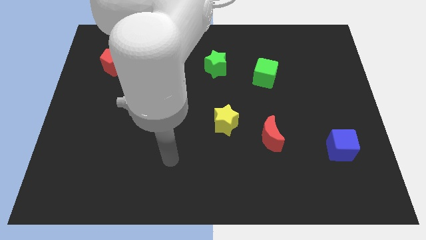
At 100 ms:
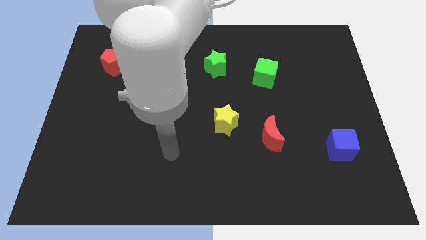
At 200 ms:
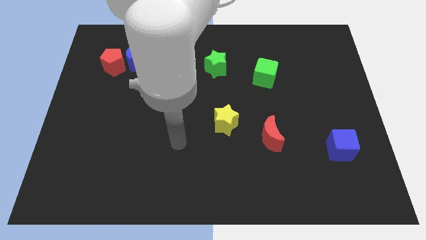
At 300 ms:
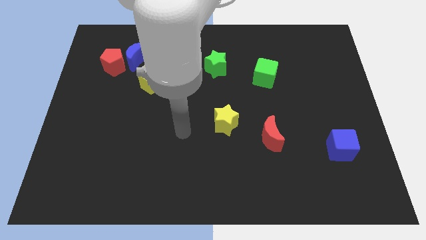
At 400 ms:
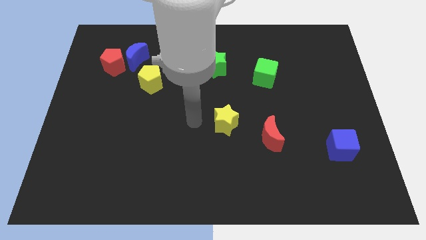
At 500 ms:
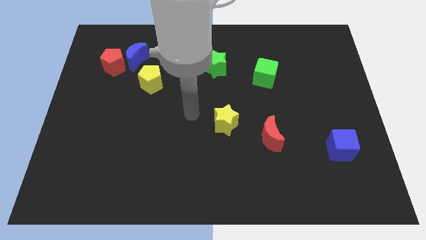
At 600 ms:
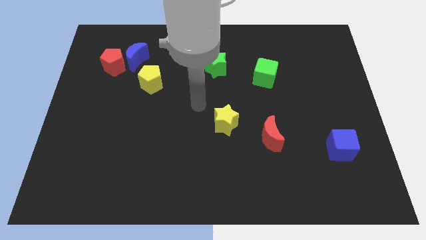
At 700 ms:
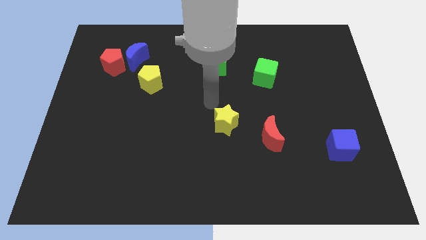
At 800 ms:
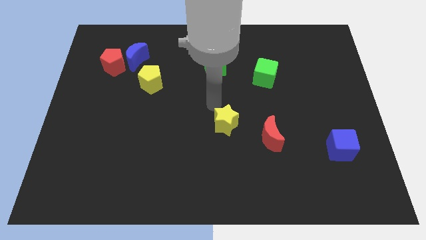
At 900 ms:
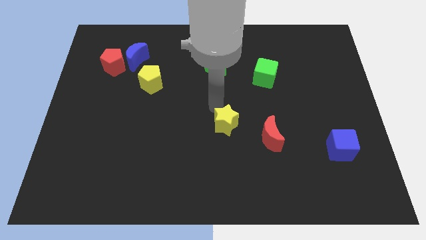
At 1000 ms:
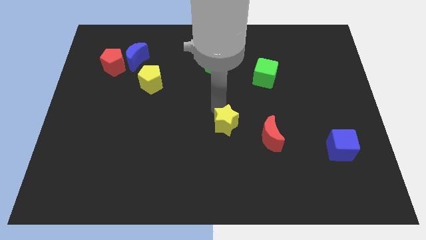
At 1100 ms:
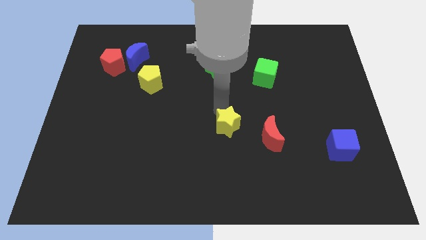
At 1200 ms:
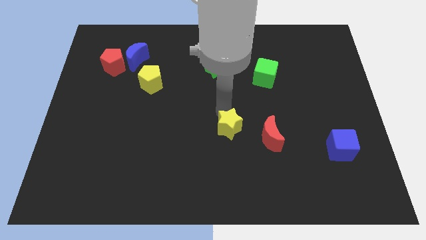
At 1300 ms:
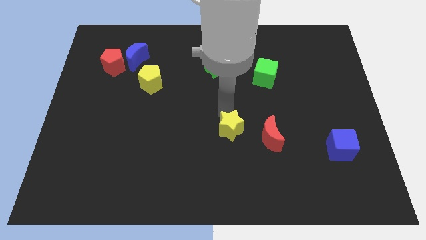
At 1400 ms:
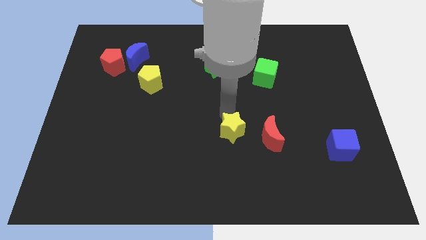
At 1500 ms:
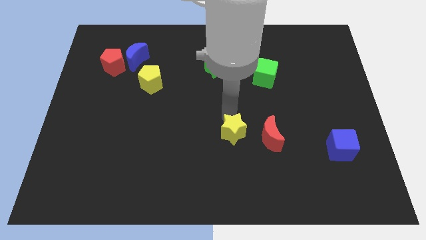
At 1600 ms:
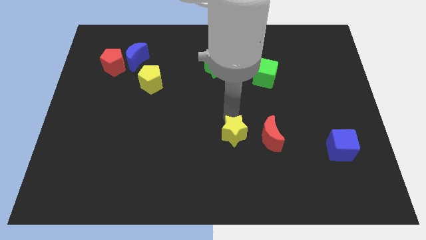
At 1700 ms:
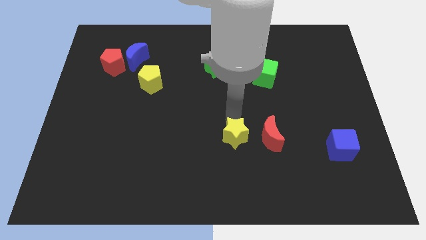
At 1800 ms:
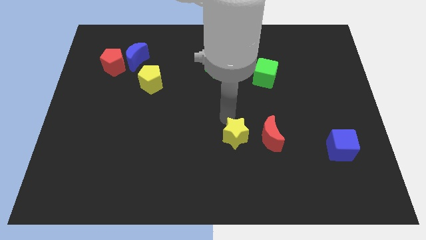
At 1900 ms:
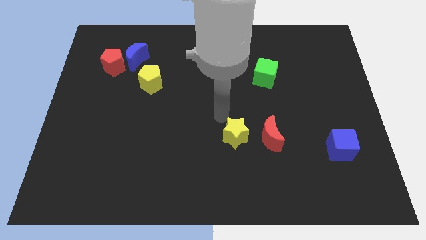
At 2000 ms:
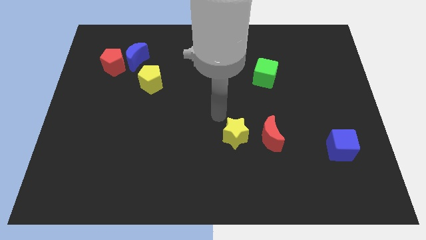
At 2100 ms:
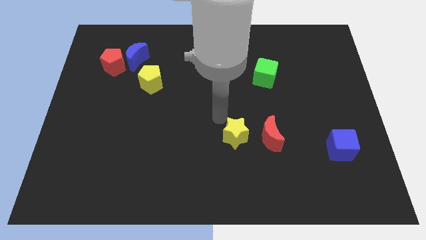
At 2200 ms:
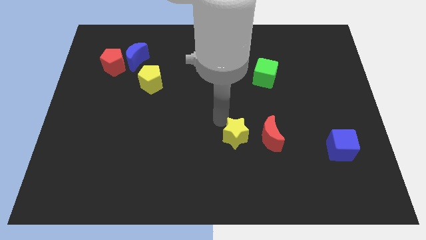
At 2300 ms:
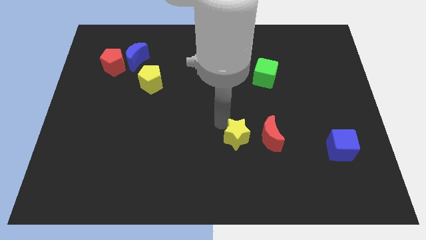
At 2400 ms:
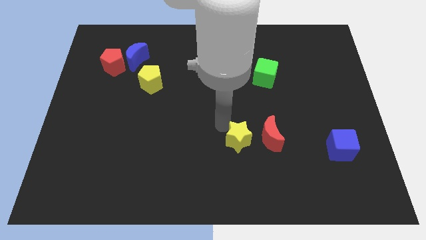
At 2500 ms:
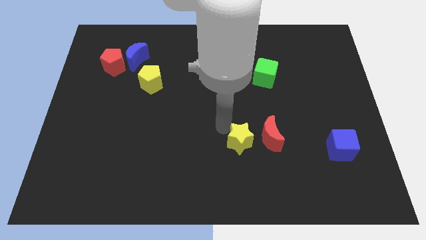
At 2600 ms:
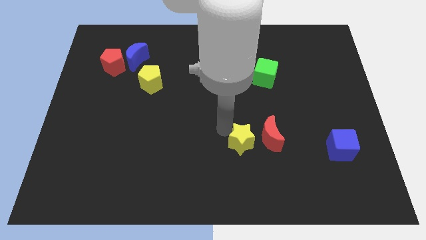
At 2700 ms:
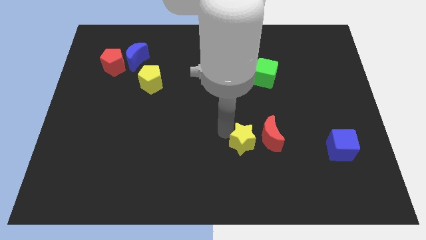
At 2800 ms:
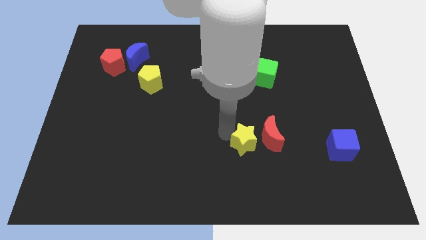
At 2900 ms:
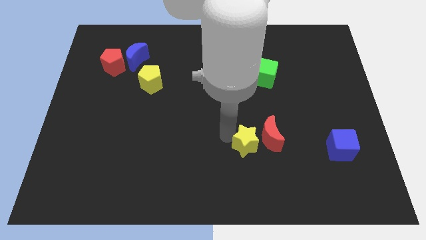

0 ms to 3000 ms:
slightly slide the yellow star down and right

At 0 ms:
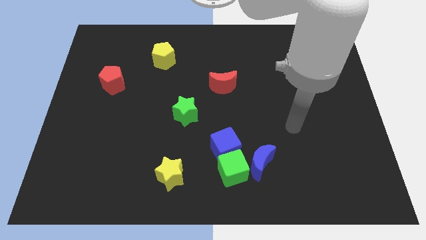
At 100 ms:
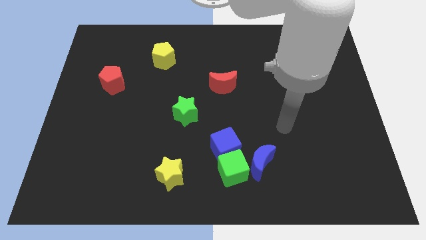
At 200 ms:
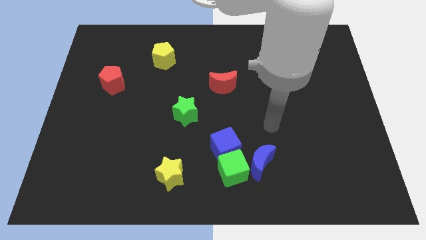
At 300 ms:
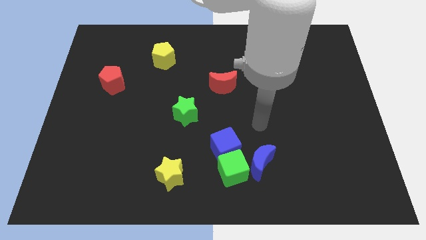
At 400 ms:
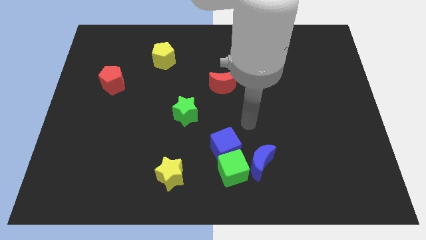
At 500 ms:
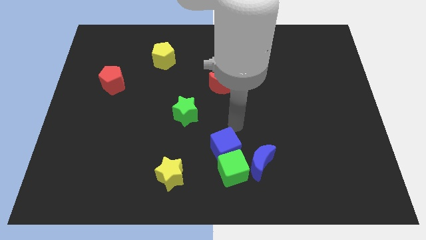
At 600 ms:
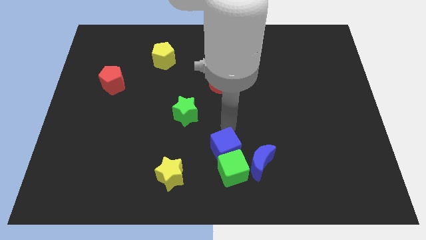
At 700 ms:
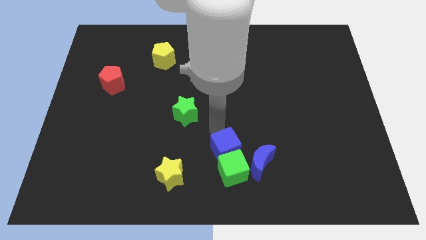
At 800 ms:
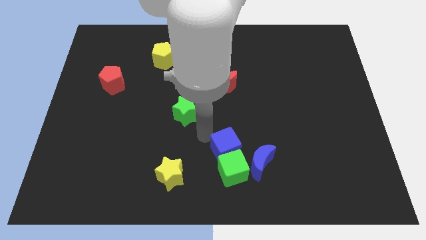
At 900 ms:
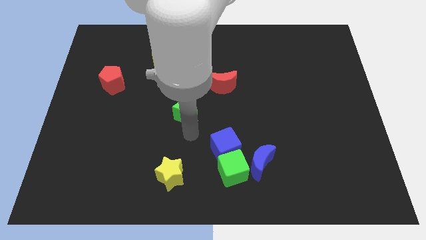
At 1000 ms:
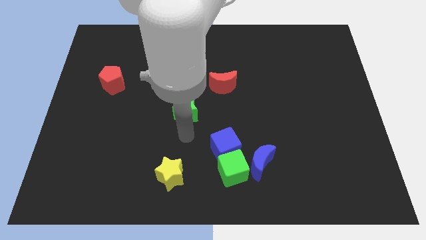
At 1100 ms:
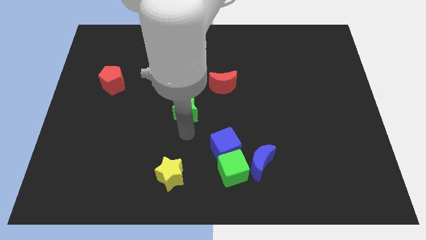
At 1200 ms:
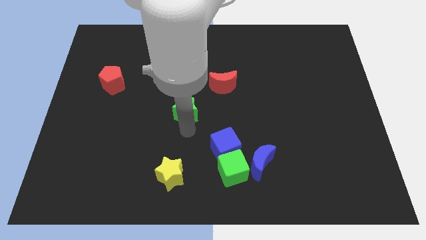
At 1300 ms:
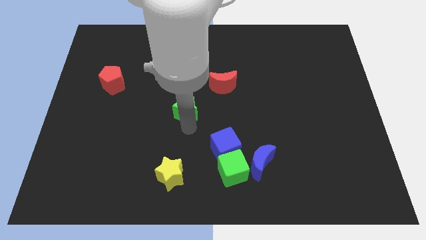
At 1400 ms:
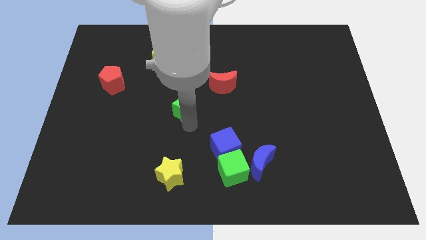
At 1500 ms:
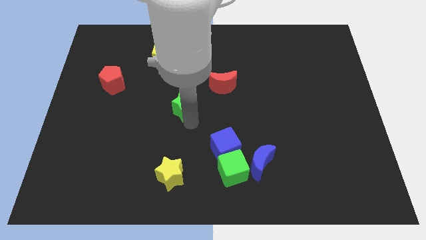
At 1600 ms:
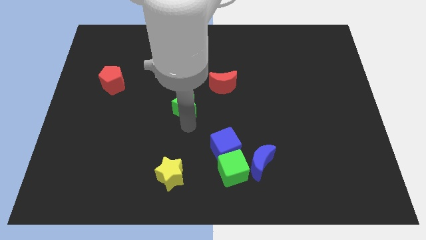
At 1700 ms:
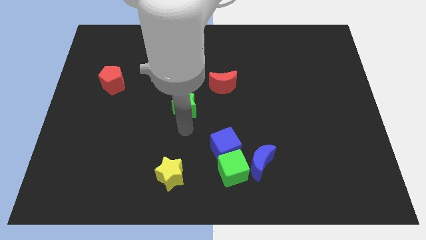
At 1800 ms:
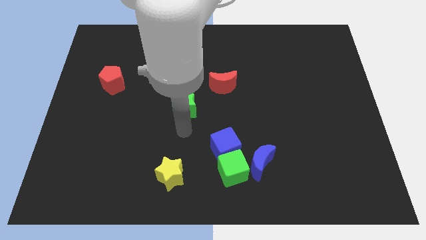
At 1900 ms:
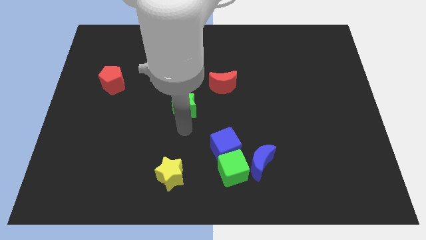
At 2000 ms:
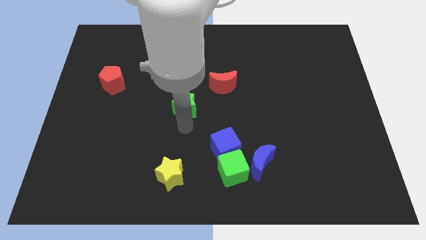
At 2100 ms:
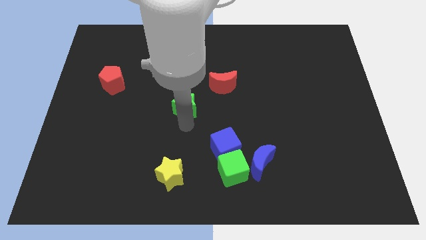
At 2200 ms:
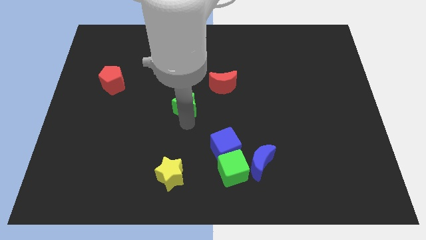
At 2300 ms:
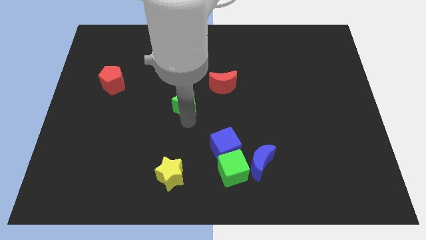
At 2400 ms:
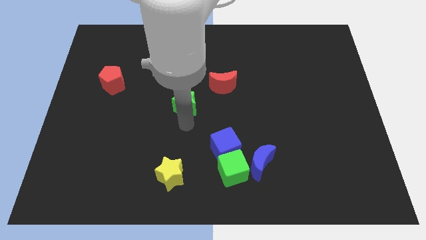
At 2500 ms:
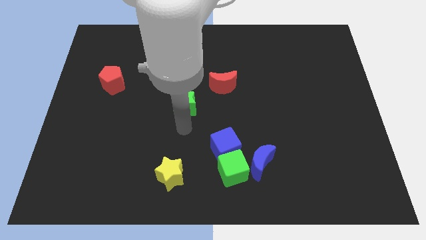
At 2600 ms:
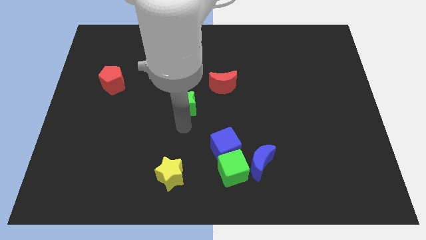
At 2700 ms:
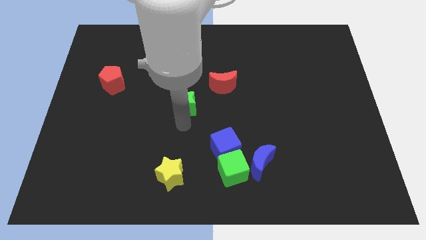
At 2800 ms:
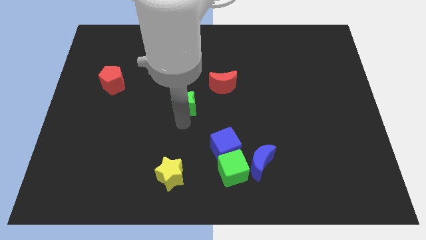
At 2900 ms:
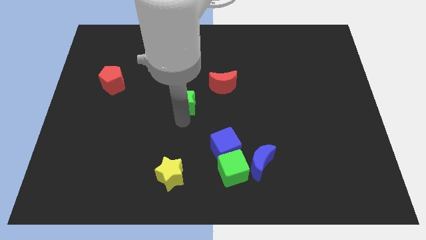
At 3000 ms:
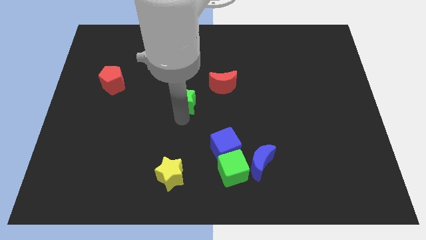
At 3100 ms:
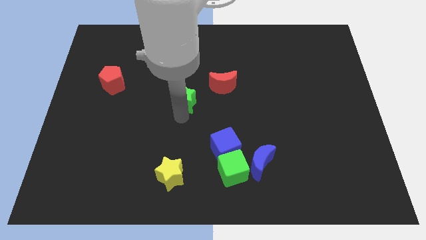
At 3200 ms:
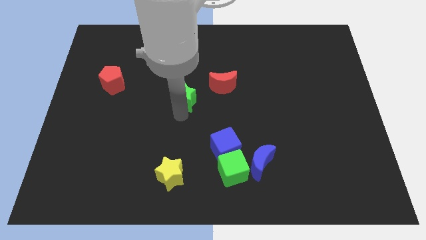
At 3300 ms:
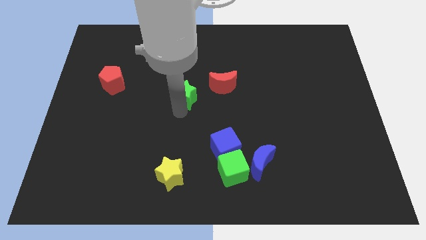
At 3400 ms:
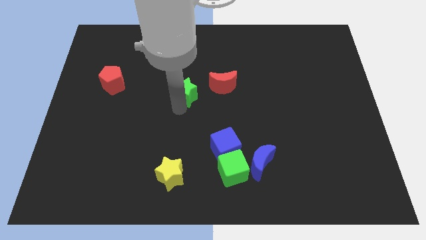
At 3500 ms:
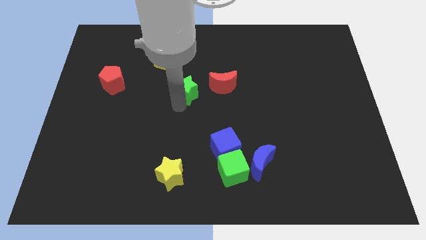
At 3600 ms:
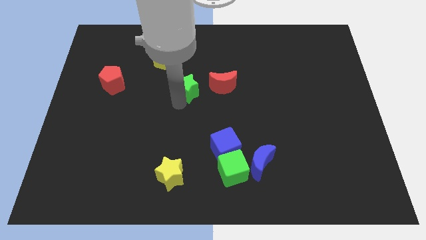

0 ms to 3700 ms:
move the green star a bit up

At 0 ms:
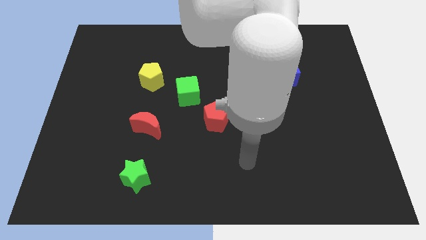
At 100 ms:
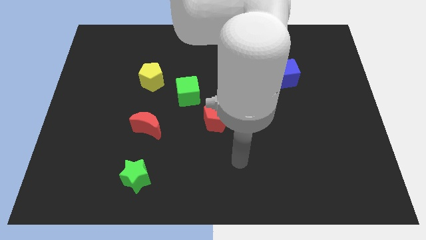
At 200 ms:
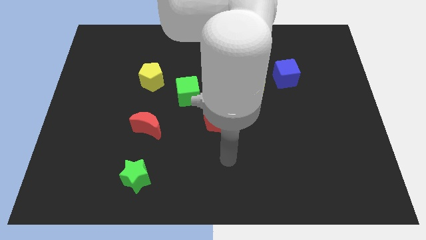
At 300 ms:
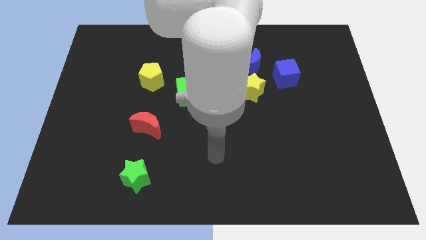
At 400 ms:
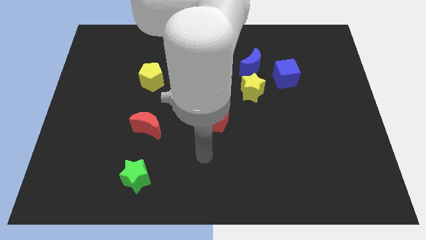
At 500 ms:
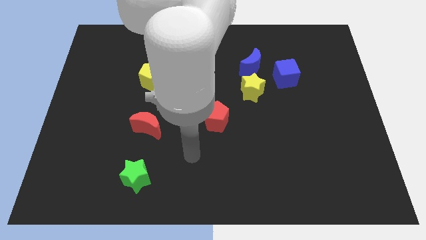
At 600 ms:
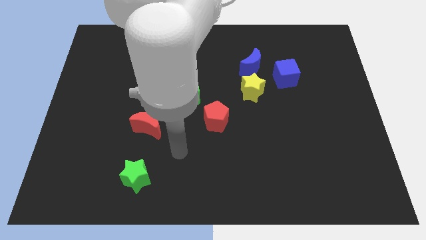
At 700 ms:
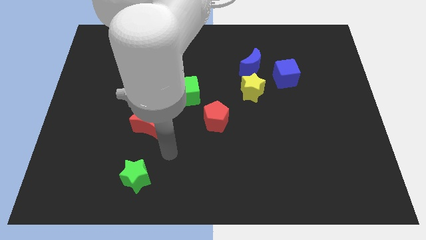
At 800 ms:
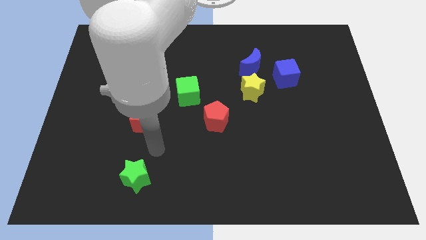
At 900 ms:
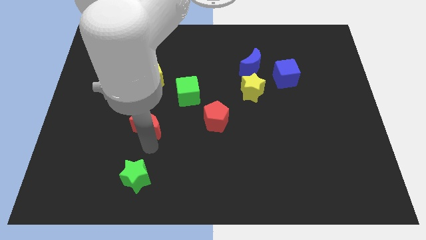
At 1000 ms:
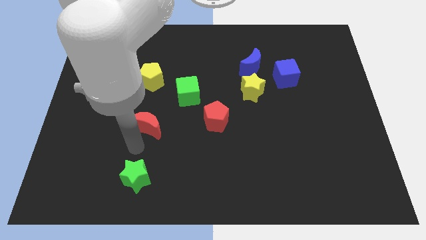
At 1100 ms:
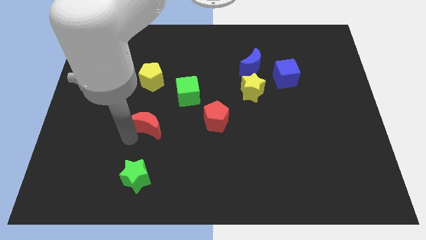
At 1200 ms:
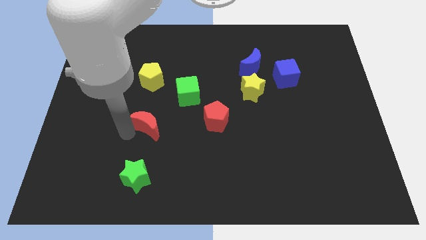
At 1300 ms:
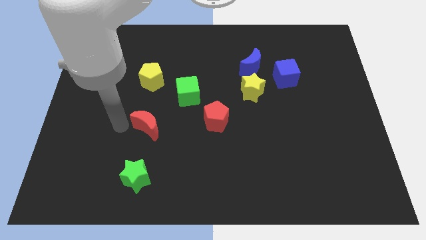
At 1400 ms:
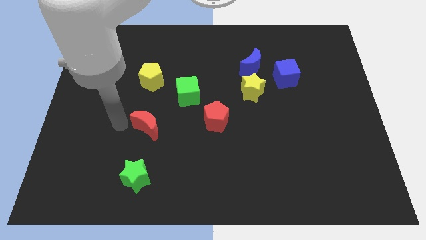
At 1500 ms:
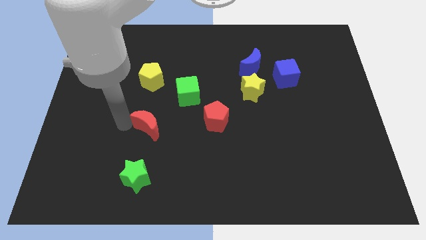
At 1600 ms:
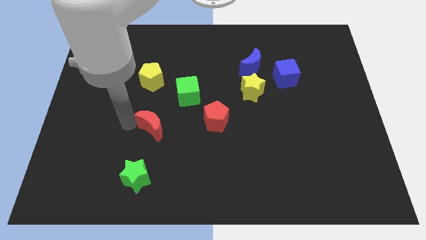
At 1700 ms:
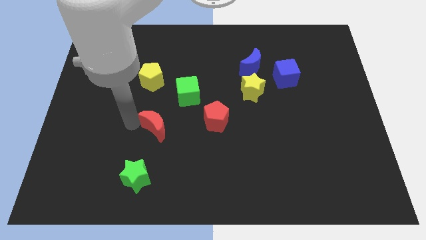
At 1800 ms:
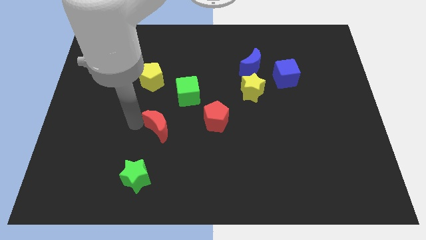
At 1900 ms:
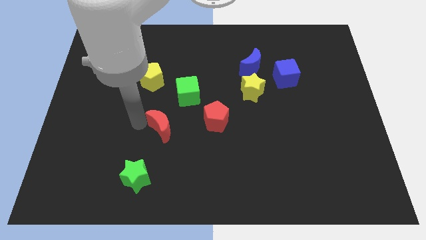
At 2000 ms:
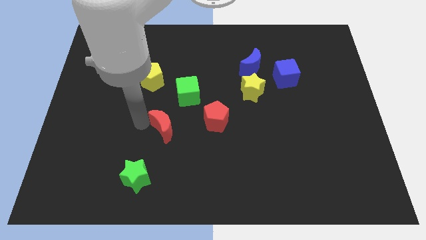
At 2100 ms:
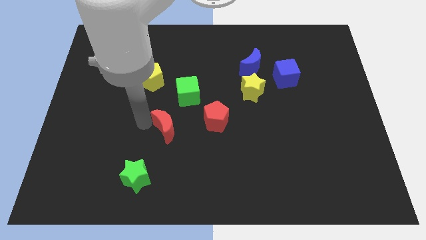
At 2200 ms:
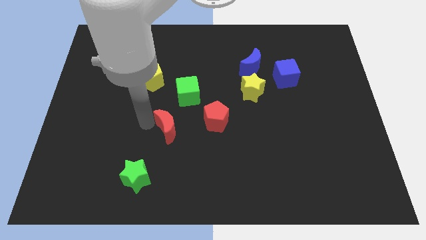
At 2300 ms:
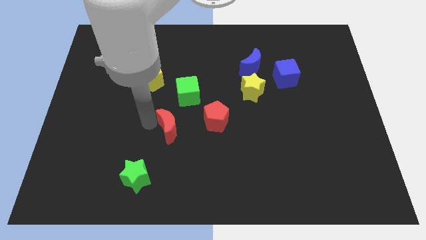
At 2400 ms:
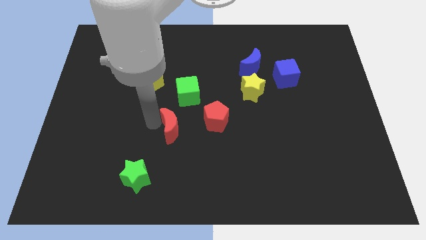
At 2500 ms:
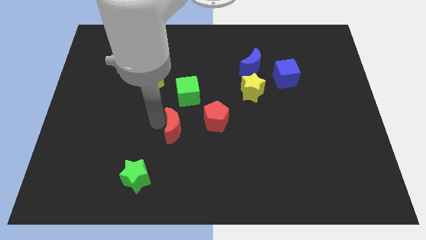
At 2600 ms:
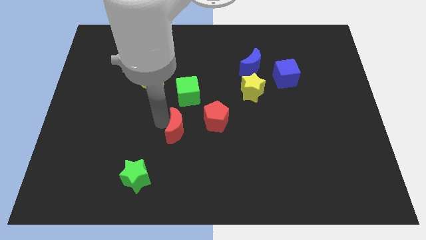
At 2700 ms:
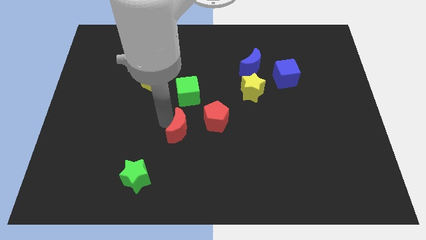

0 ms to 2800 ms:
push the red moon right somewhat
